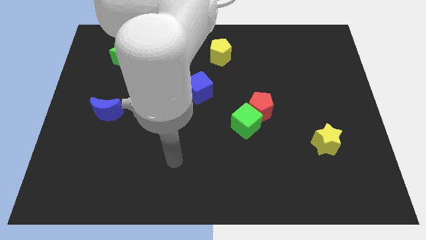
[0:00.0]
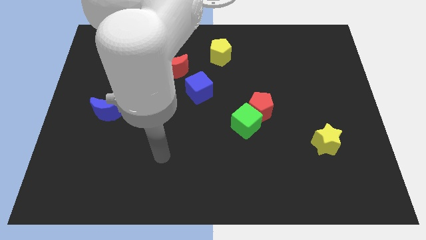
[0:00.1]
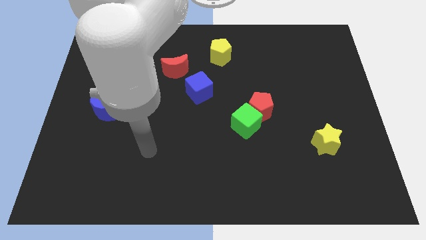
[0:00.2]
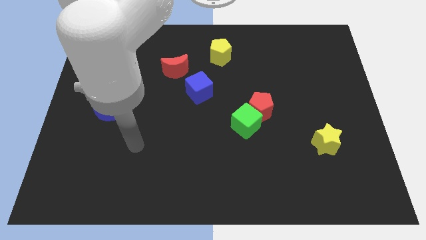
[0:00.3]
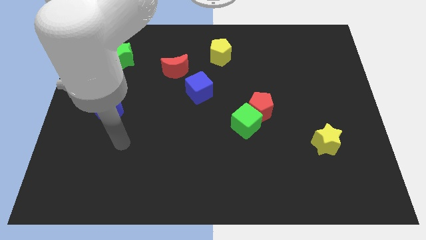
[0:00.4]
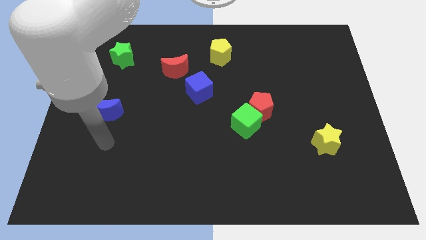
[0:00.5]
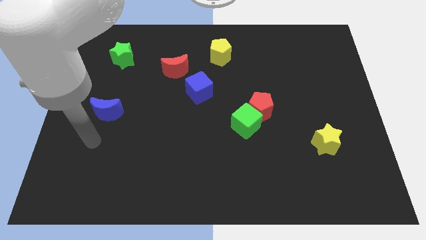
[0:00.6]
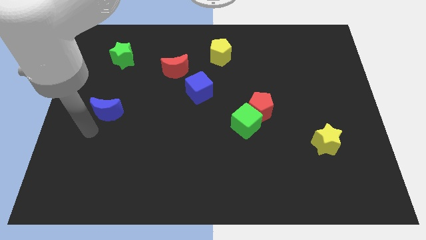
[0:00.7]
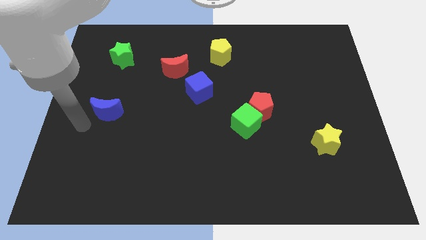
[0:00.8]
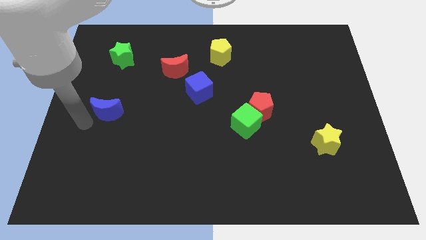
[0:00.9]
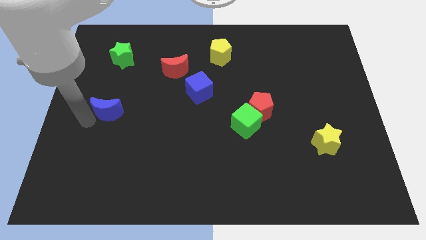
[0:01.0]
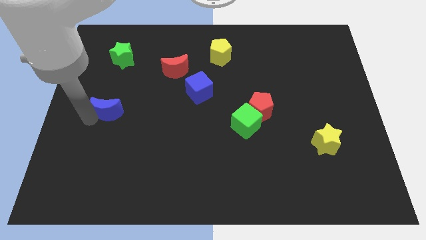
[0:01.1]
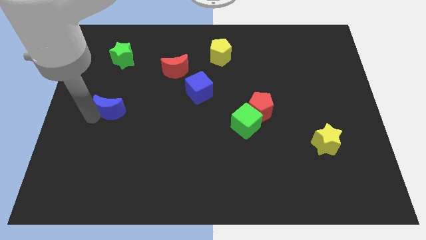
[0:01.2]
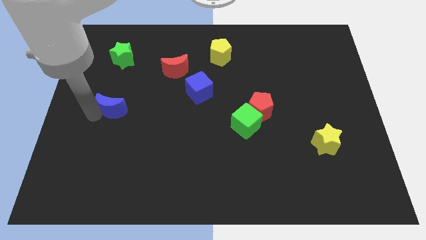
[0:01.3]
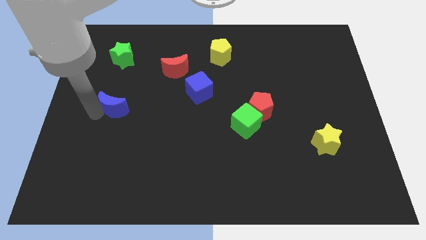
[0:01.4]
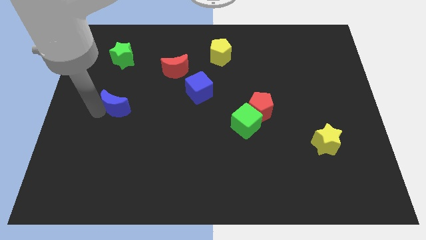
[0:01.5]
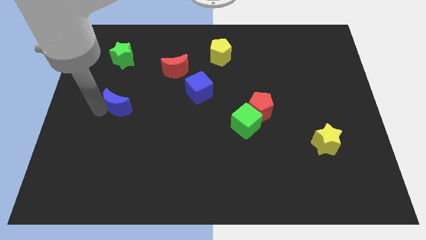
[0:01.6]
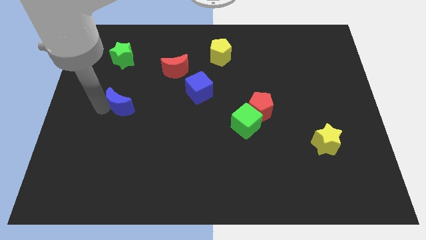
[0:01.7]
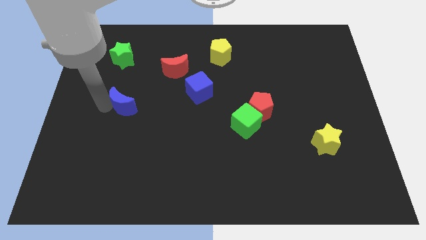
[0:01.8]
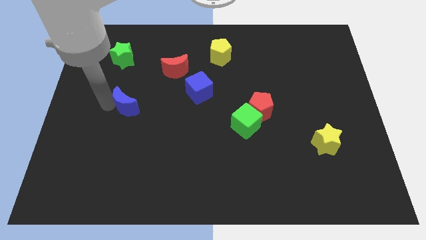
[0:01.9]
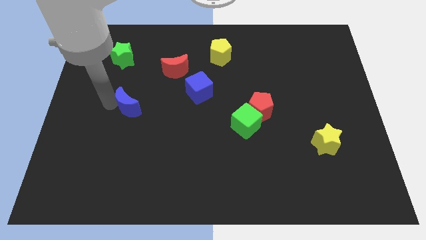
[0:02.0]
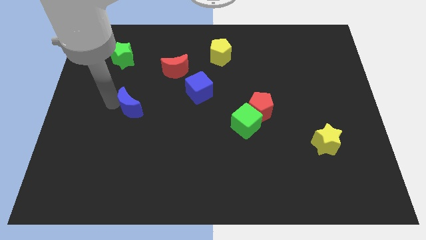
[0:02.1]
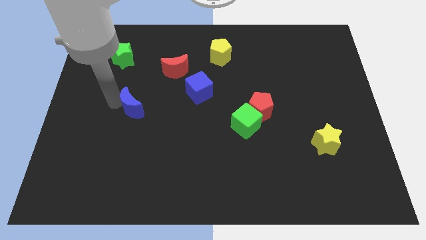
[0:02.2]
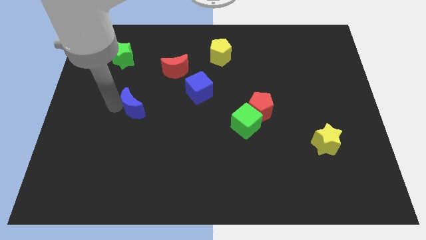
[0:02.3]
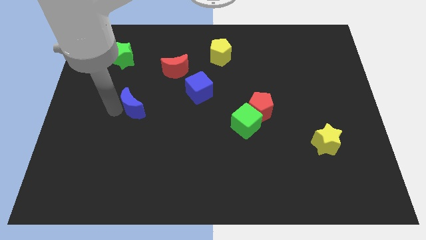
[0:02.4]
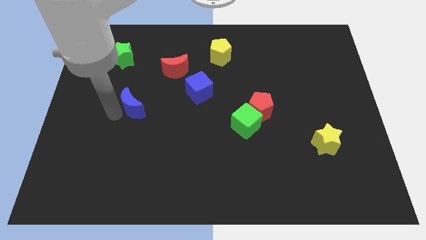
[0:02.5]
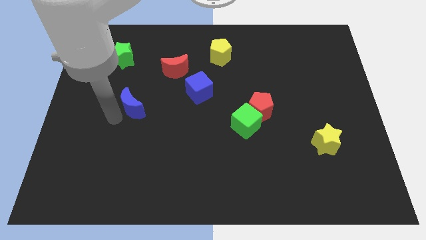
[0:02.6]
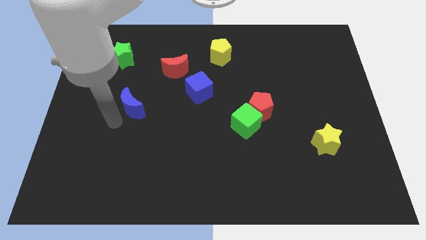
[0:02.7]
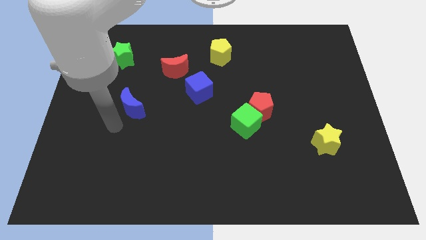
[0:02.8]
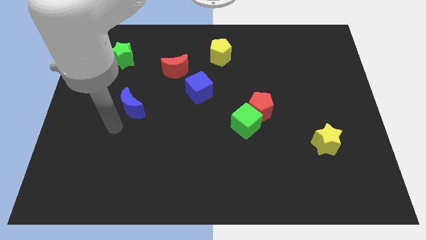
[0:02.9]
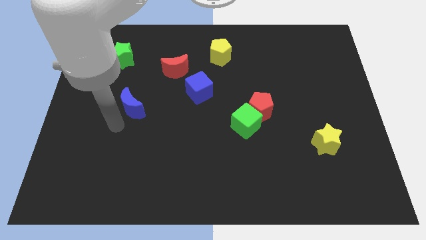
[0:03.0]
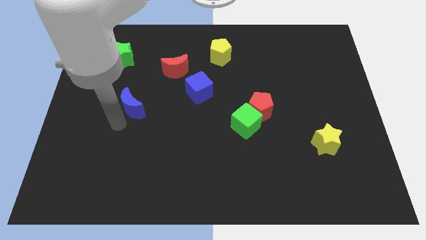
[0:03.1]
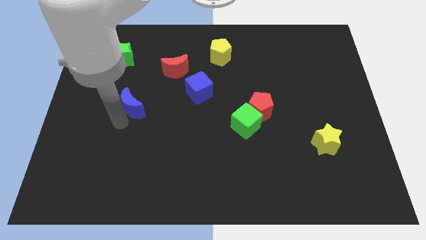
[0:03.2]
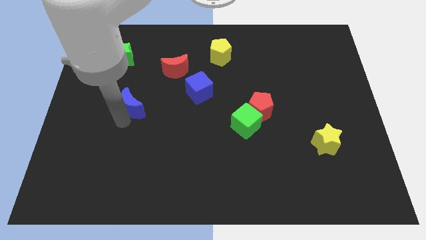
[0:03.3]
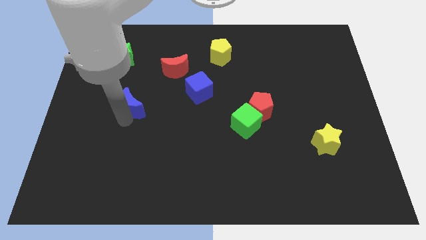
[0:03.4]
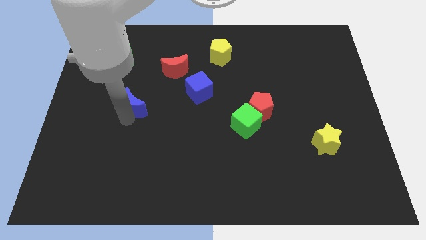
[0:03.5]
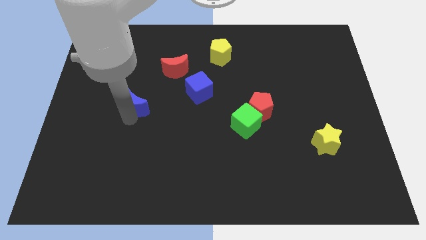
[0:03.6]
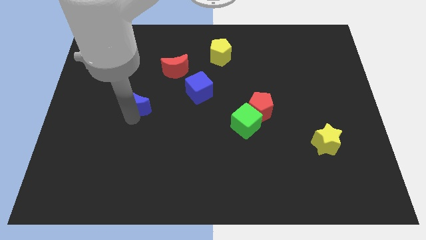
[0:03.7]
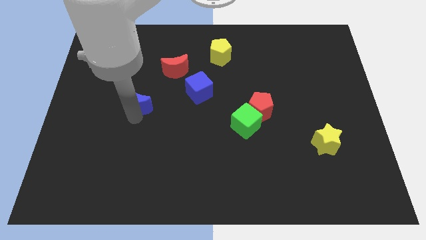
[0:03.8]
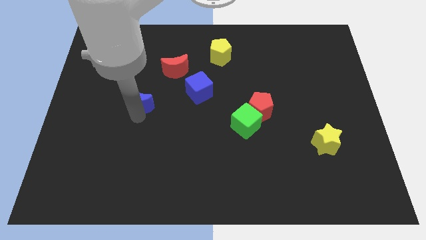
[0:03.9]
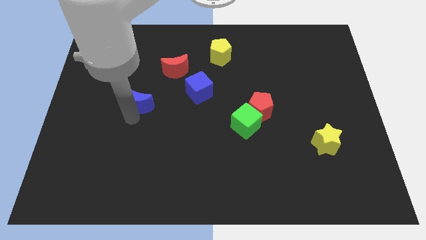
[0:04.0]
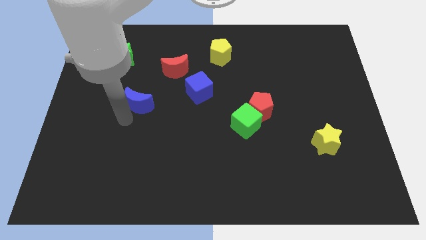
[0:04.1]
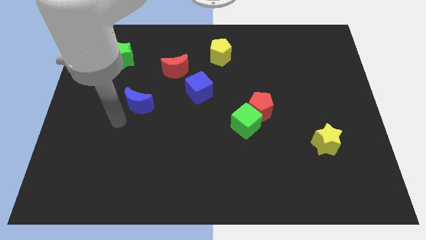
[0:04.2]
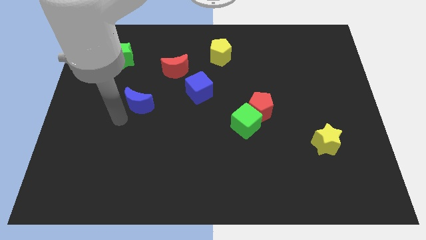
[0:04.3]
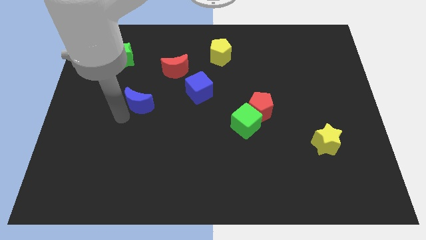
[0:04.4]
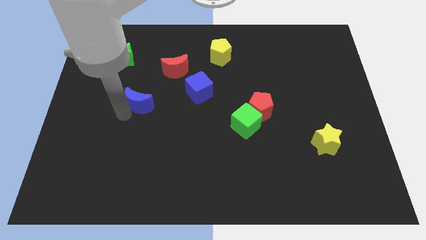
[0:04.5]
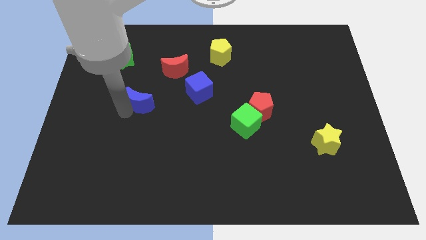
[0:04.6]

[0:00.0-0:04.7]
put the blue moon left of the blue cube

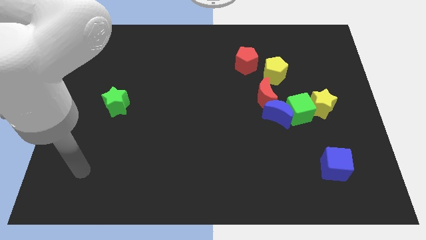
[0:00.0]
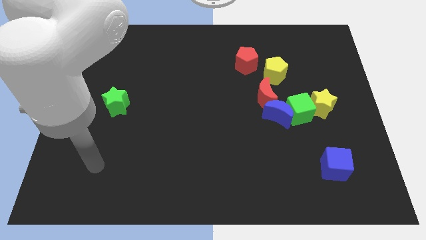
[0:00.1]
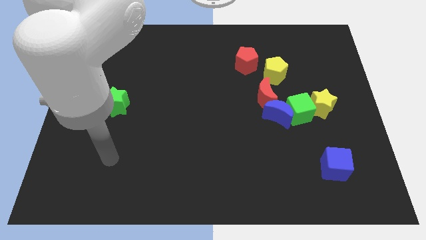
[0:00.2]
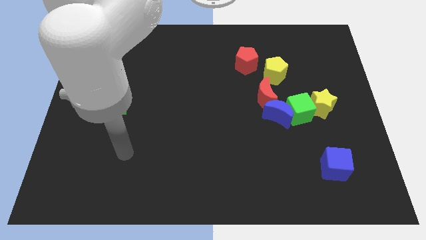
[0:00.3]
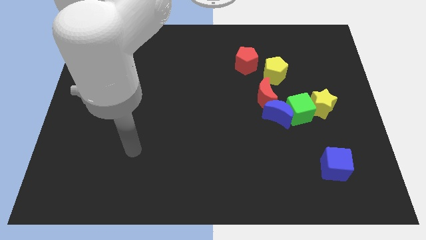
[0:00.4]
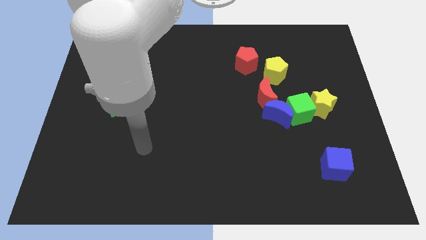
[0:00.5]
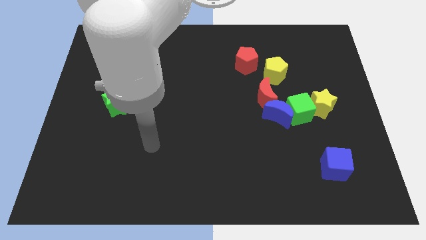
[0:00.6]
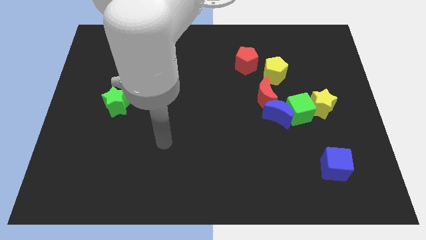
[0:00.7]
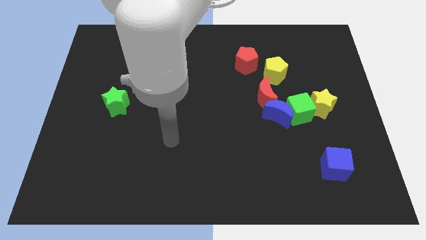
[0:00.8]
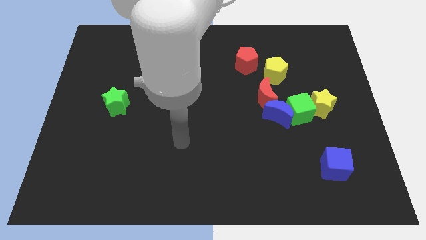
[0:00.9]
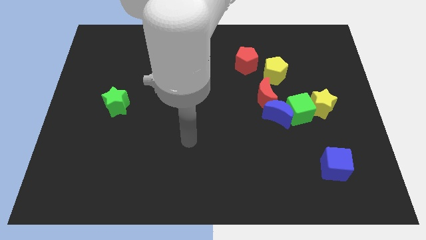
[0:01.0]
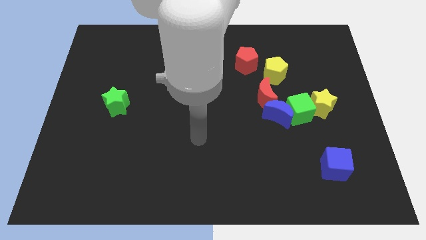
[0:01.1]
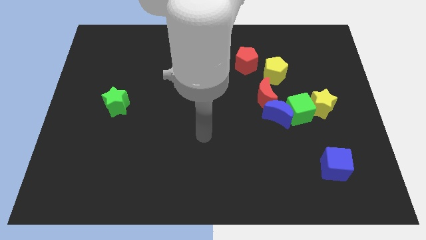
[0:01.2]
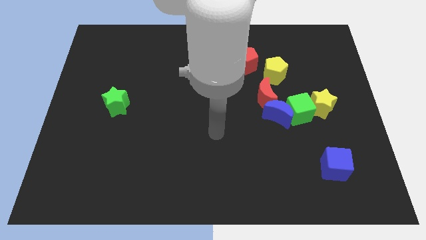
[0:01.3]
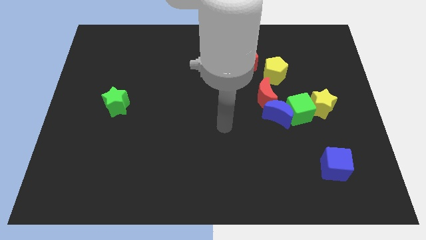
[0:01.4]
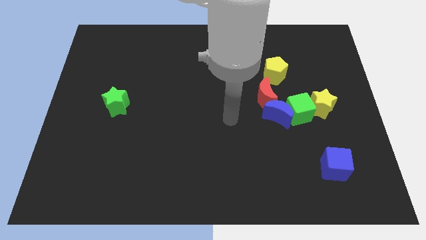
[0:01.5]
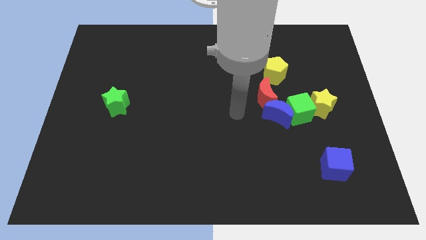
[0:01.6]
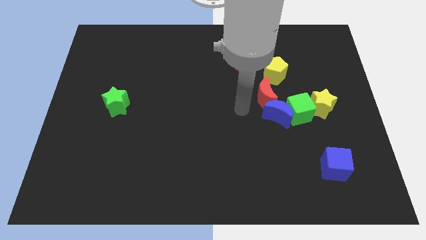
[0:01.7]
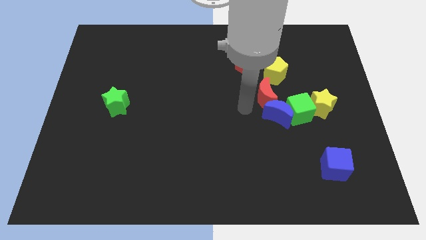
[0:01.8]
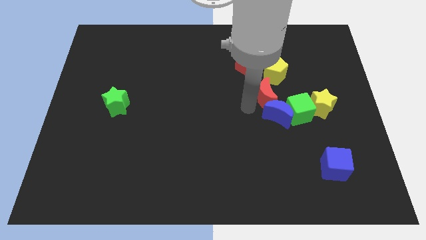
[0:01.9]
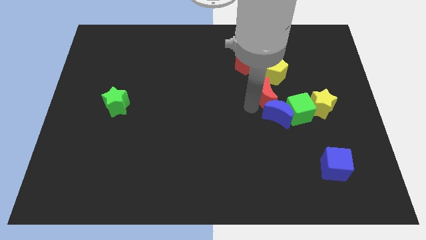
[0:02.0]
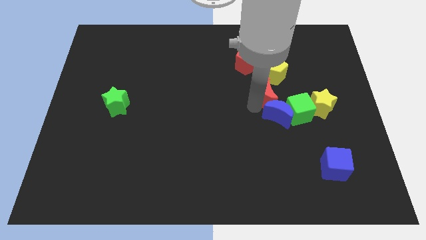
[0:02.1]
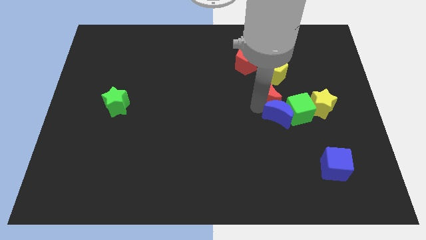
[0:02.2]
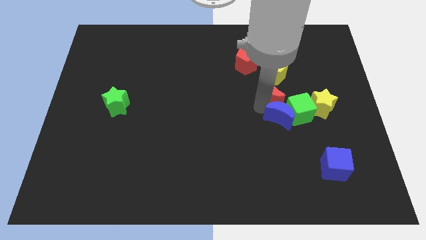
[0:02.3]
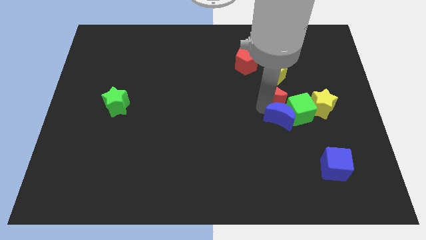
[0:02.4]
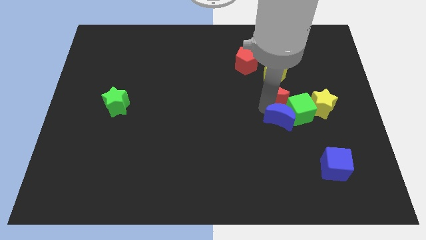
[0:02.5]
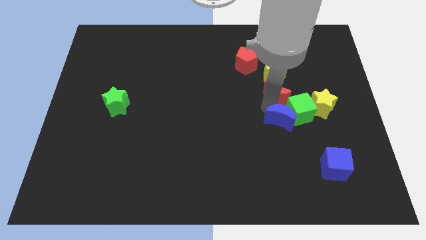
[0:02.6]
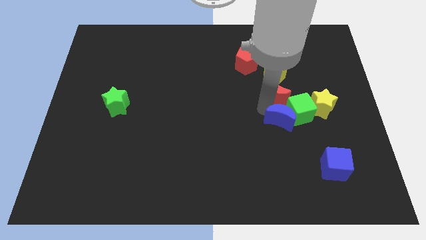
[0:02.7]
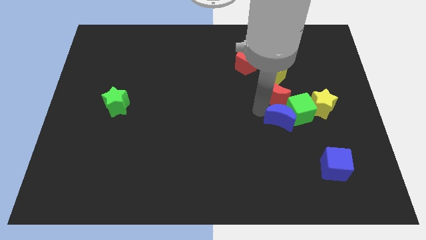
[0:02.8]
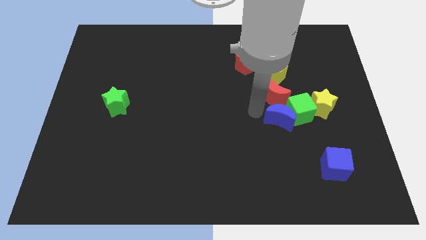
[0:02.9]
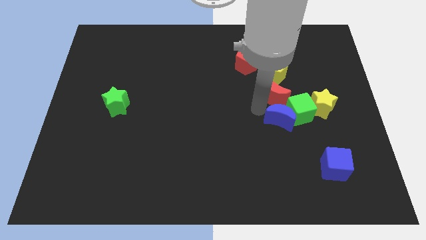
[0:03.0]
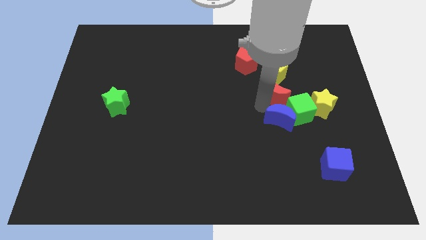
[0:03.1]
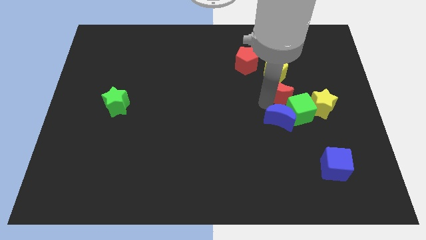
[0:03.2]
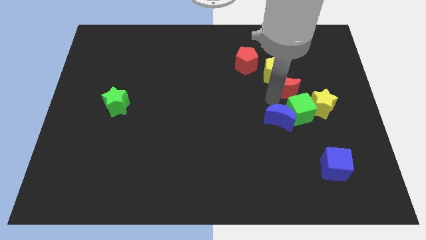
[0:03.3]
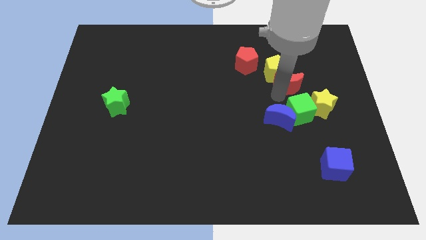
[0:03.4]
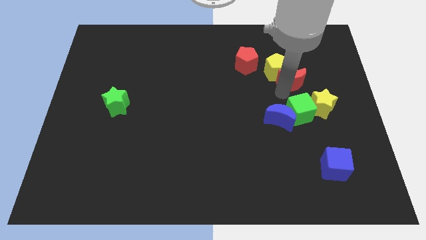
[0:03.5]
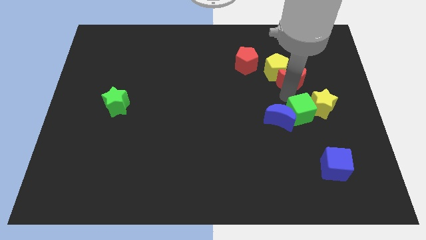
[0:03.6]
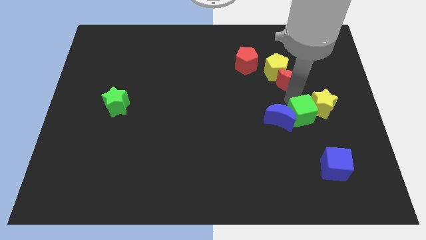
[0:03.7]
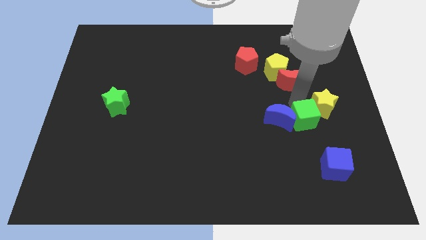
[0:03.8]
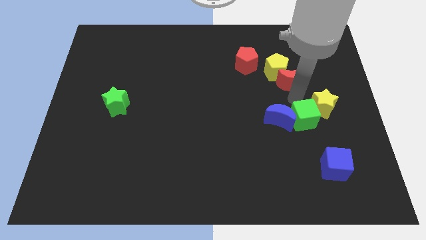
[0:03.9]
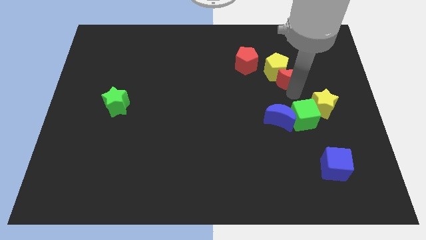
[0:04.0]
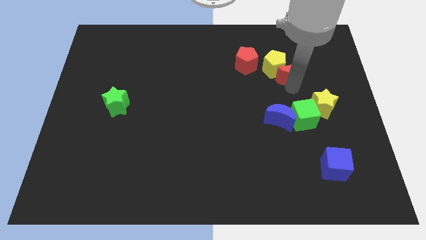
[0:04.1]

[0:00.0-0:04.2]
move the red moon right of the red pentagon
